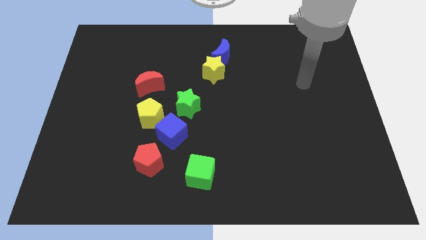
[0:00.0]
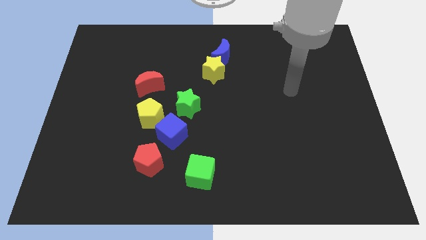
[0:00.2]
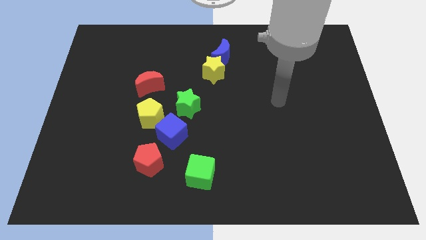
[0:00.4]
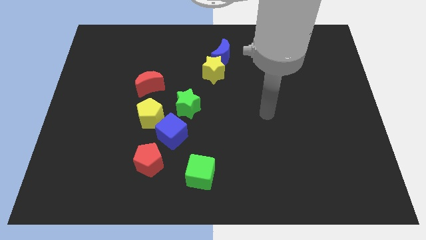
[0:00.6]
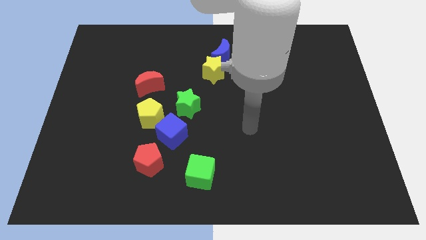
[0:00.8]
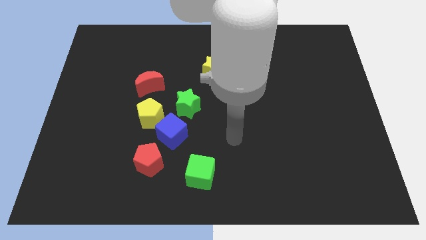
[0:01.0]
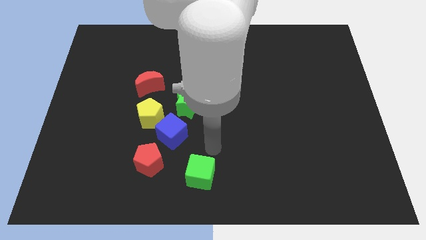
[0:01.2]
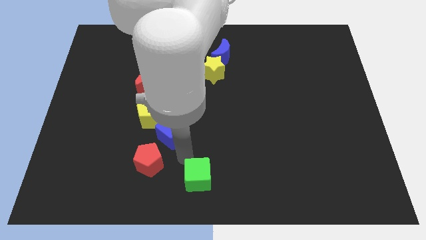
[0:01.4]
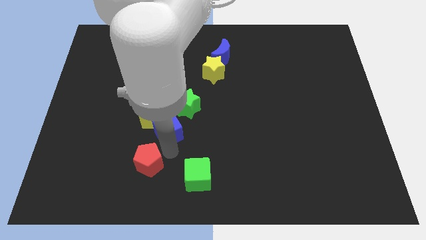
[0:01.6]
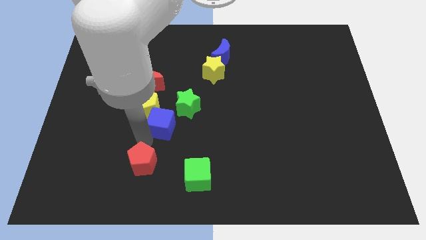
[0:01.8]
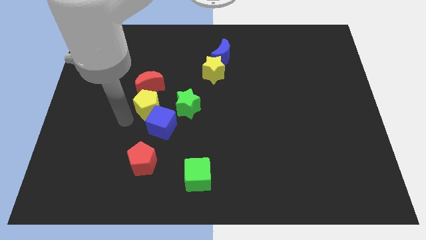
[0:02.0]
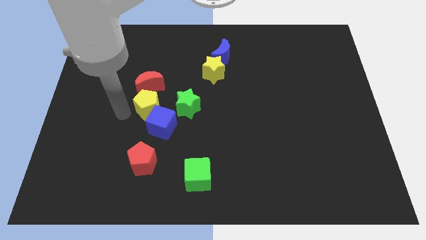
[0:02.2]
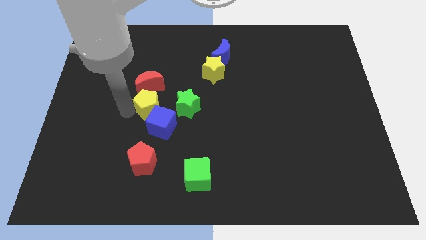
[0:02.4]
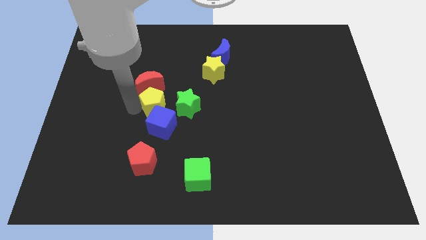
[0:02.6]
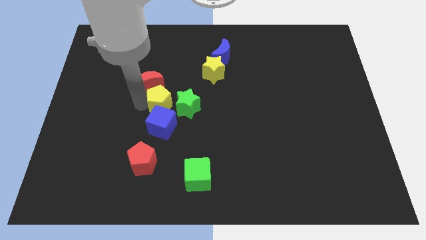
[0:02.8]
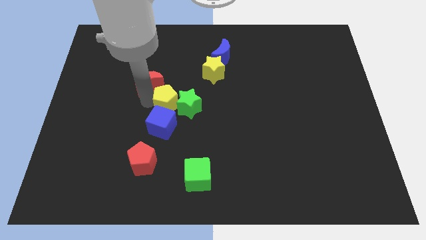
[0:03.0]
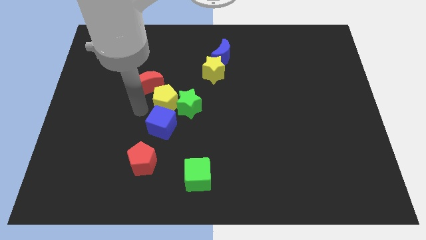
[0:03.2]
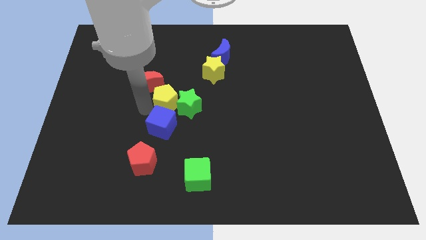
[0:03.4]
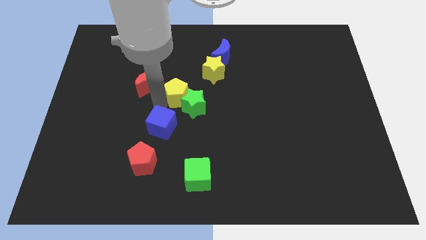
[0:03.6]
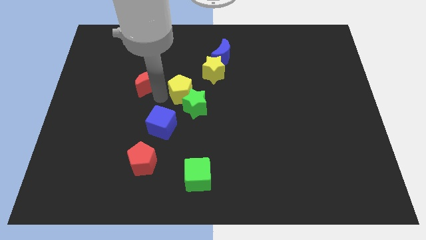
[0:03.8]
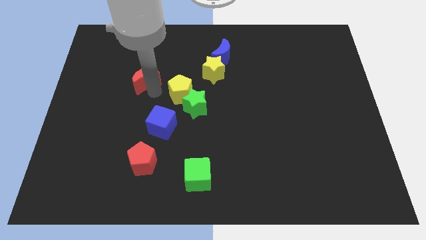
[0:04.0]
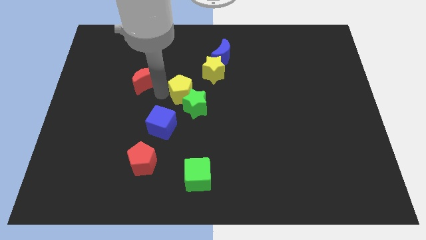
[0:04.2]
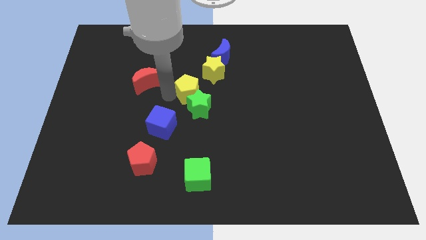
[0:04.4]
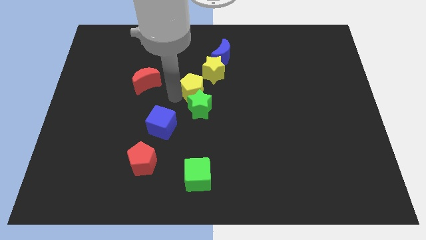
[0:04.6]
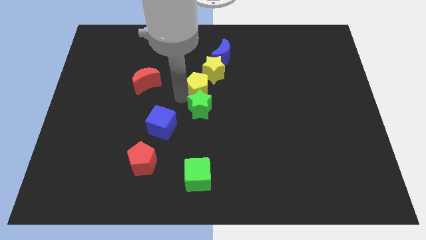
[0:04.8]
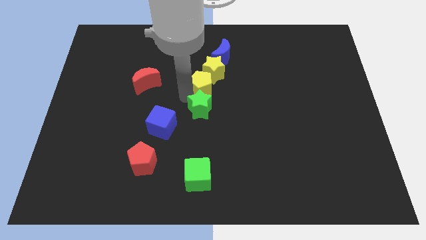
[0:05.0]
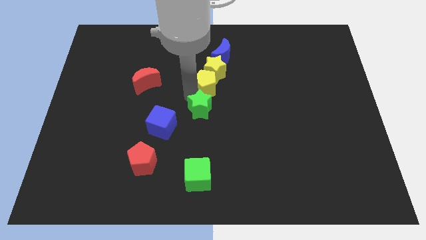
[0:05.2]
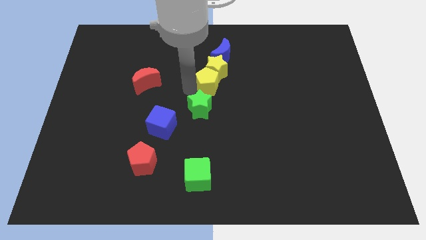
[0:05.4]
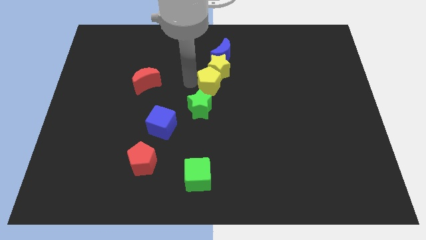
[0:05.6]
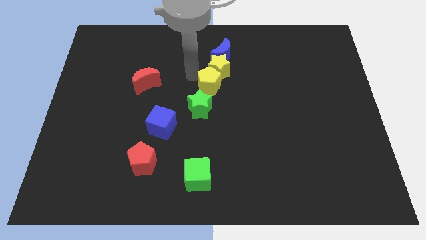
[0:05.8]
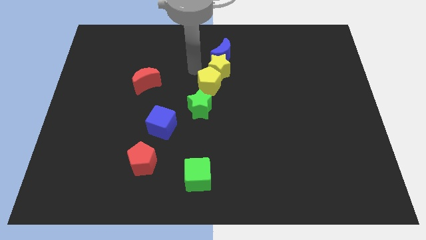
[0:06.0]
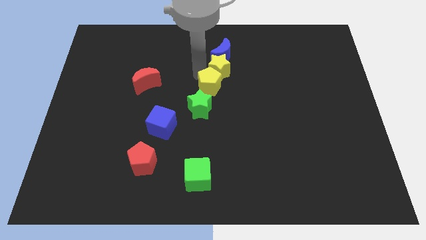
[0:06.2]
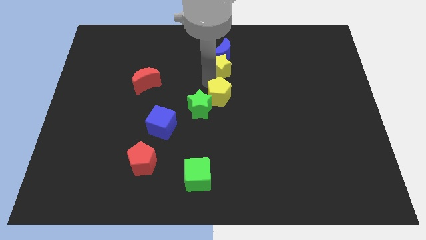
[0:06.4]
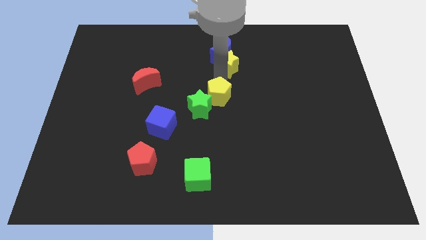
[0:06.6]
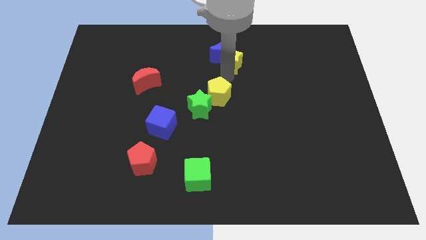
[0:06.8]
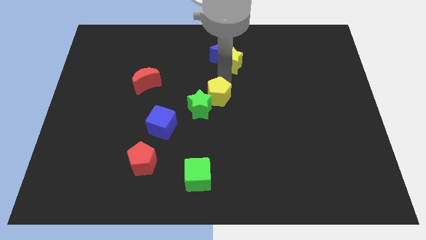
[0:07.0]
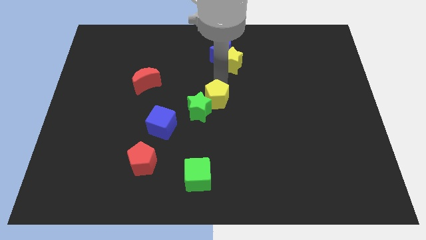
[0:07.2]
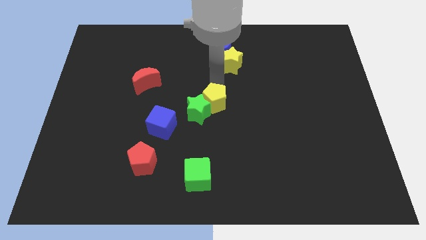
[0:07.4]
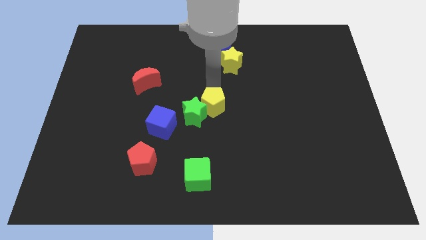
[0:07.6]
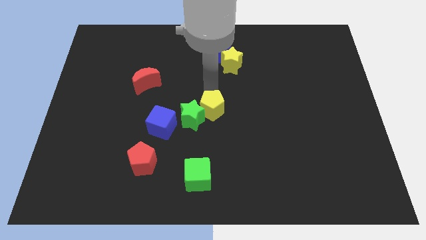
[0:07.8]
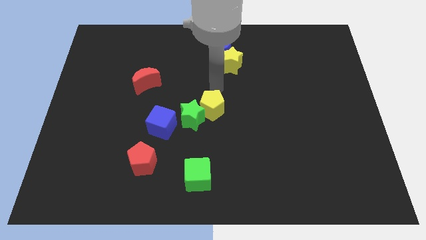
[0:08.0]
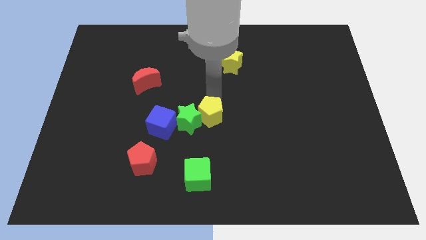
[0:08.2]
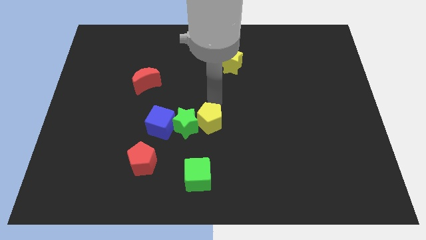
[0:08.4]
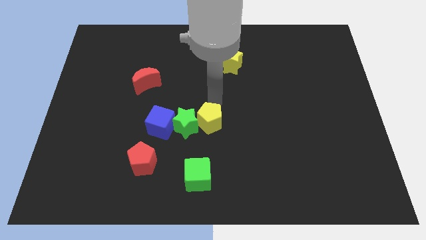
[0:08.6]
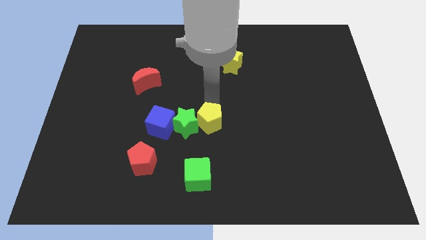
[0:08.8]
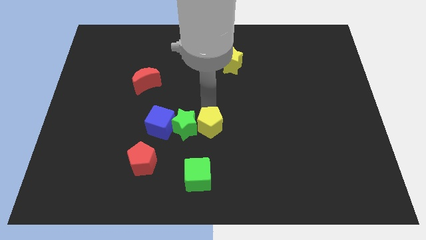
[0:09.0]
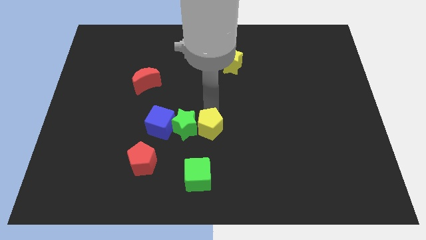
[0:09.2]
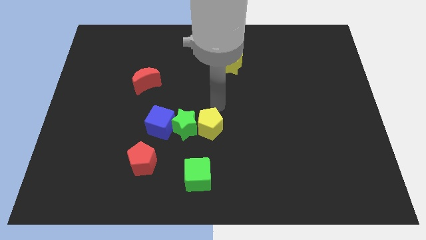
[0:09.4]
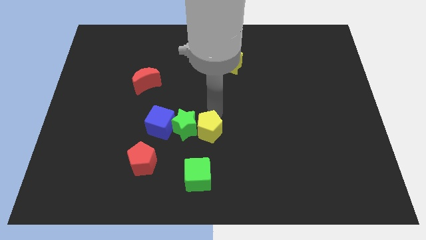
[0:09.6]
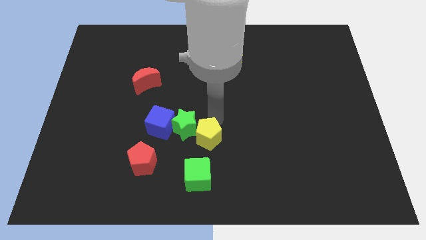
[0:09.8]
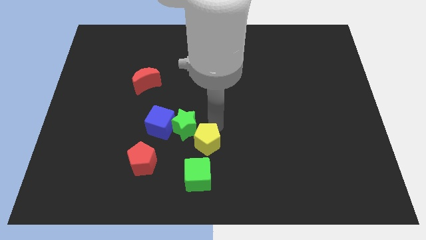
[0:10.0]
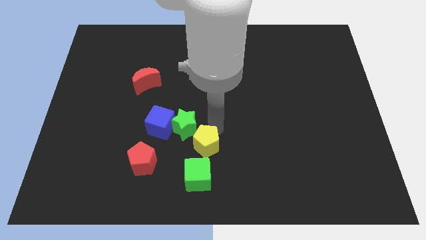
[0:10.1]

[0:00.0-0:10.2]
slide the yellow pentagon right of the red pentagon

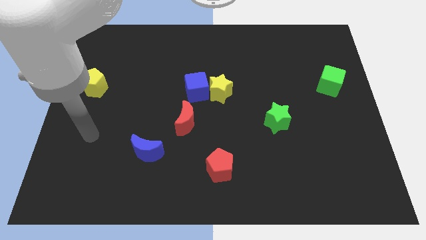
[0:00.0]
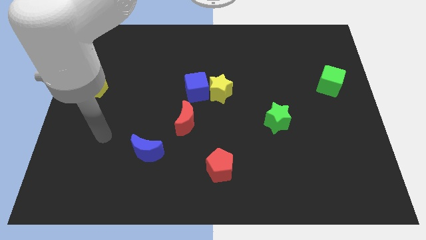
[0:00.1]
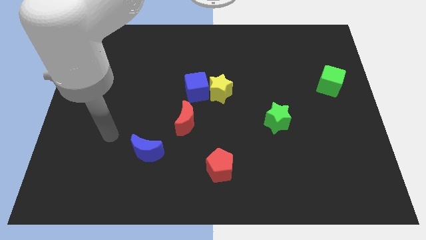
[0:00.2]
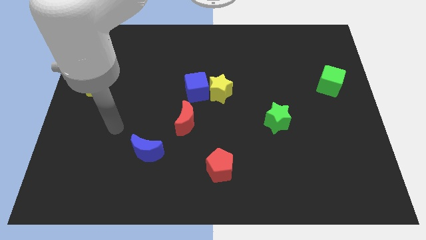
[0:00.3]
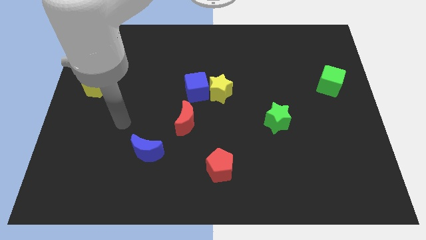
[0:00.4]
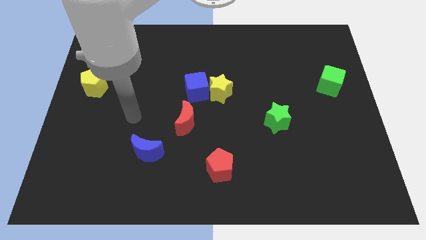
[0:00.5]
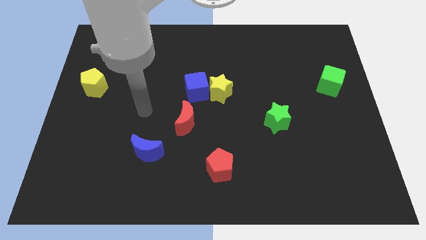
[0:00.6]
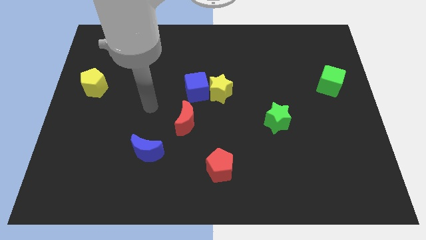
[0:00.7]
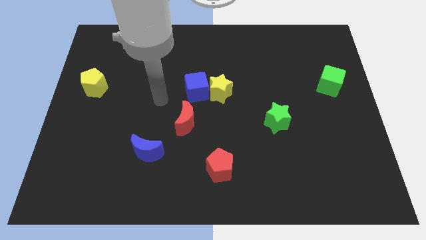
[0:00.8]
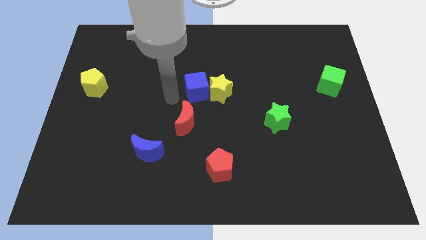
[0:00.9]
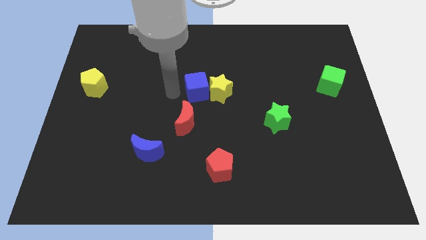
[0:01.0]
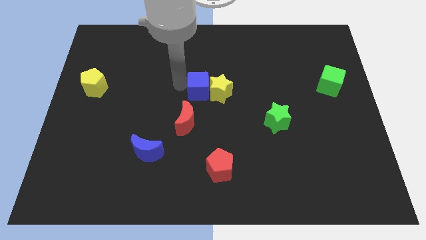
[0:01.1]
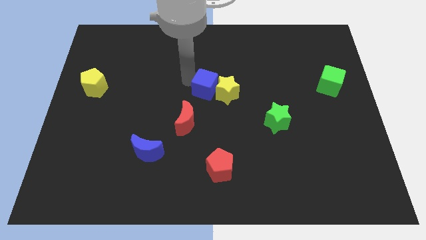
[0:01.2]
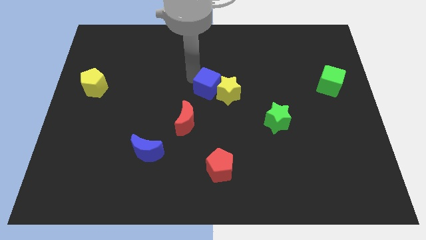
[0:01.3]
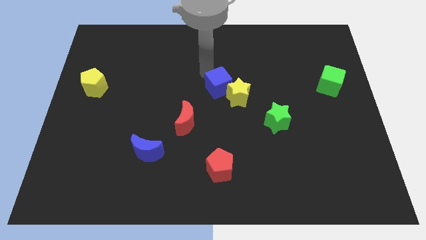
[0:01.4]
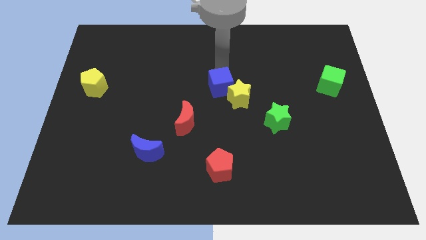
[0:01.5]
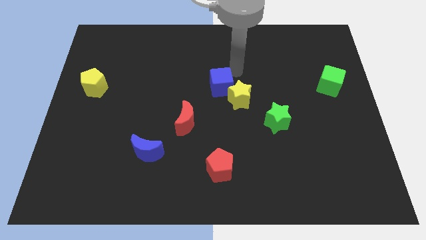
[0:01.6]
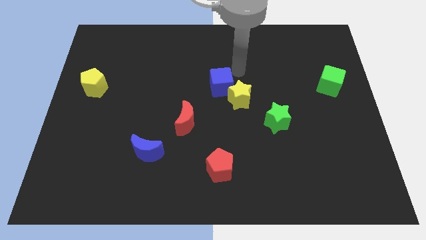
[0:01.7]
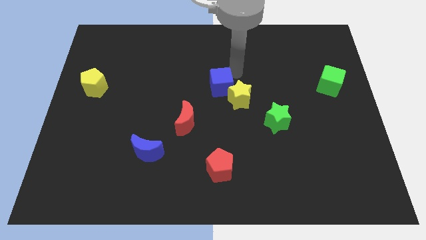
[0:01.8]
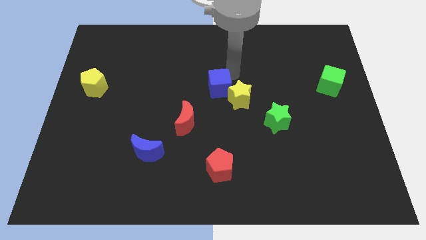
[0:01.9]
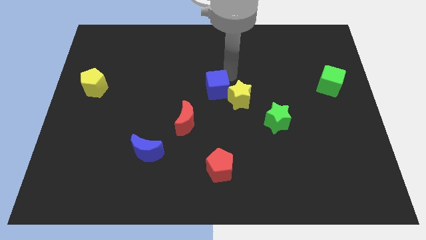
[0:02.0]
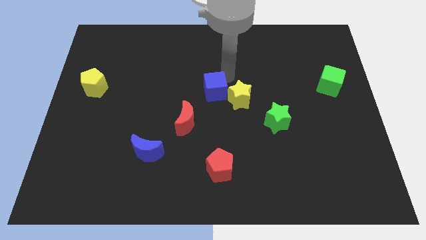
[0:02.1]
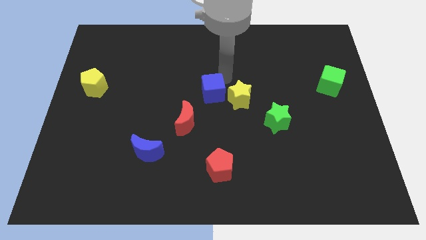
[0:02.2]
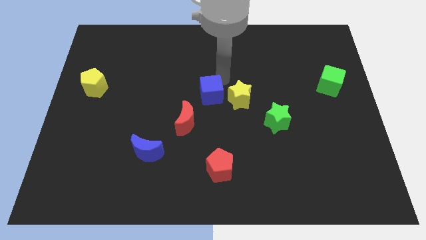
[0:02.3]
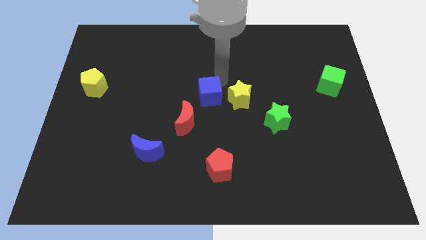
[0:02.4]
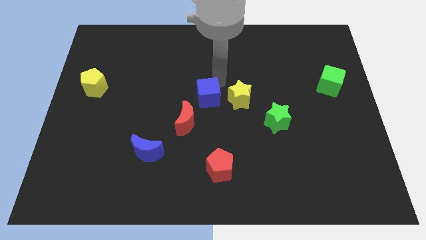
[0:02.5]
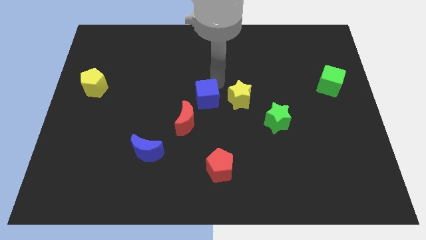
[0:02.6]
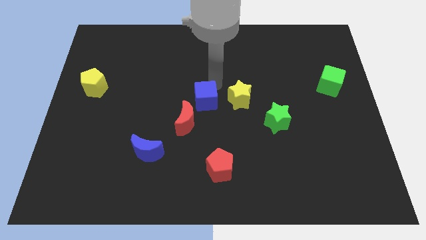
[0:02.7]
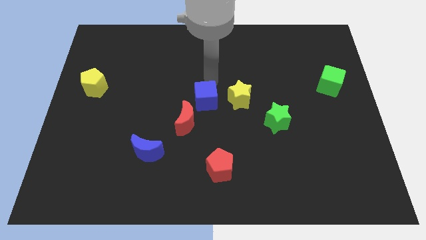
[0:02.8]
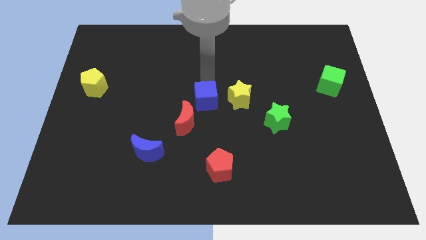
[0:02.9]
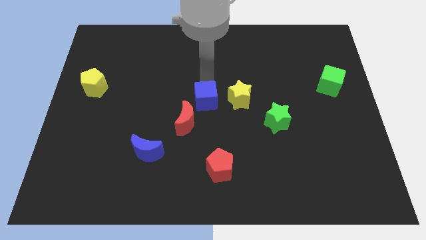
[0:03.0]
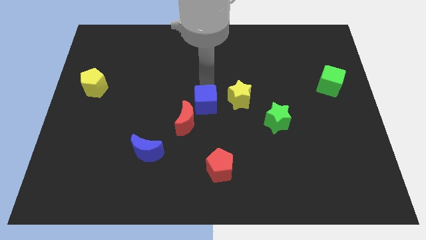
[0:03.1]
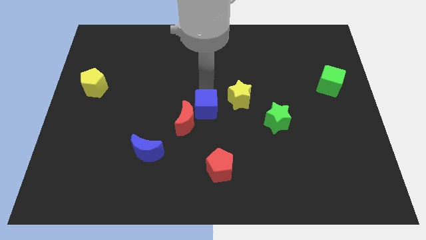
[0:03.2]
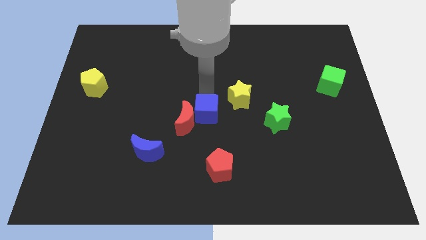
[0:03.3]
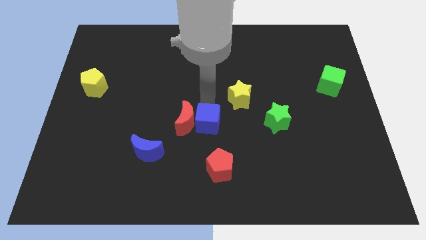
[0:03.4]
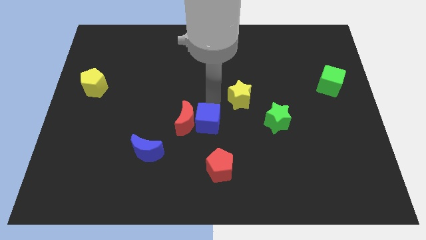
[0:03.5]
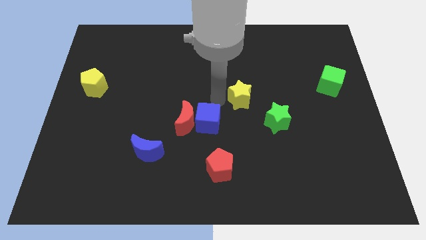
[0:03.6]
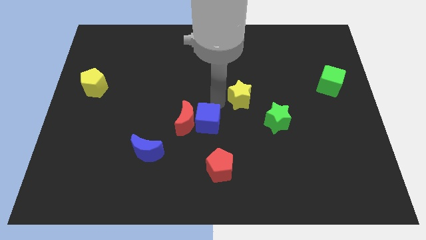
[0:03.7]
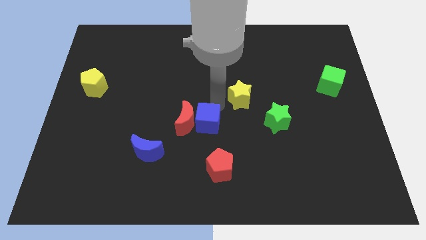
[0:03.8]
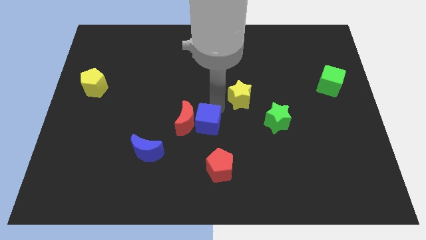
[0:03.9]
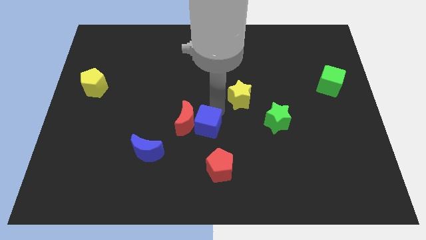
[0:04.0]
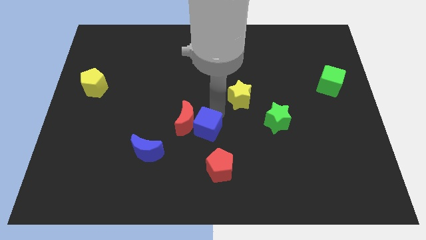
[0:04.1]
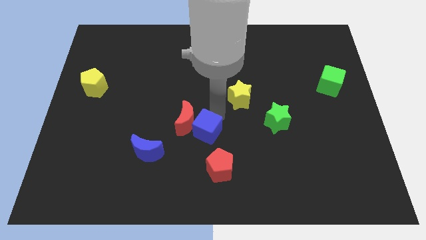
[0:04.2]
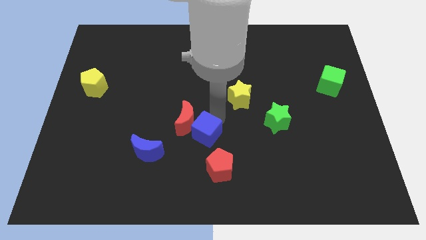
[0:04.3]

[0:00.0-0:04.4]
move the blue cube to the top left side of the red pentagon
